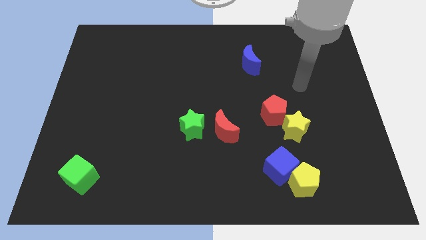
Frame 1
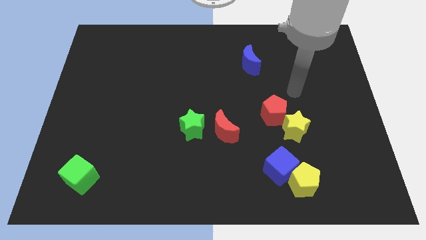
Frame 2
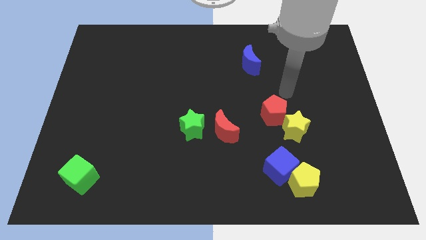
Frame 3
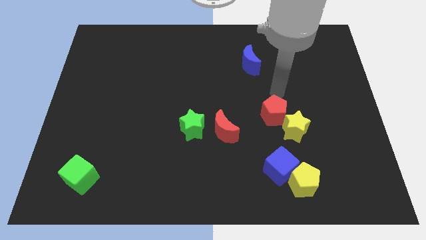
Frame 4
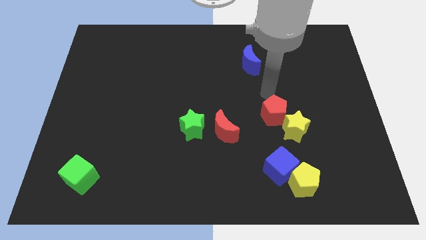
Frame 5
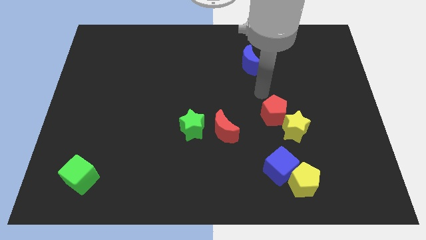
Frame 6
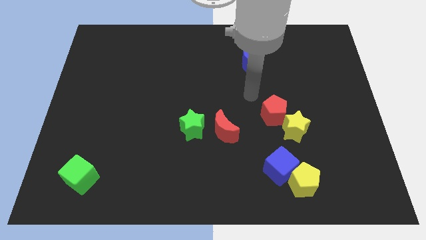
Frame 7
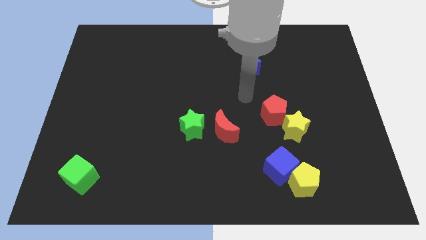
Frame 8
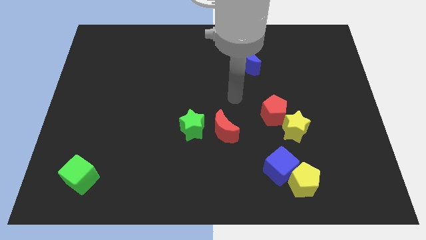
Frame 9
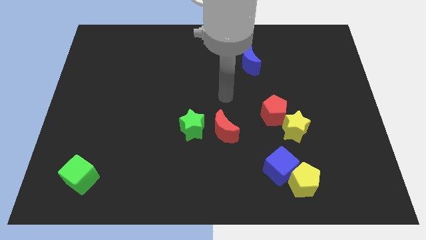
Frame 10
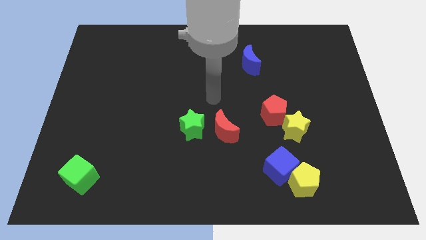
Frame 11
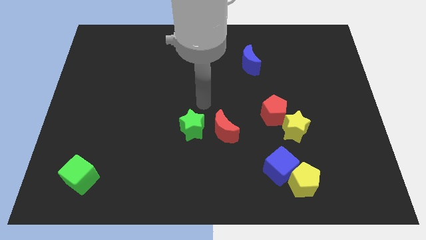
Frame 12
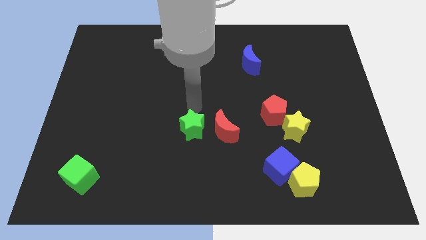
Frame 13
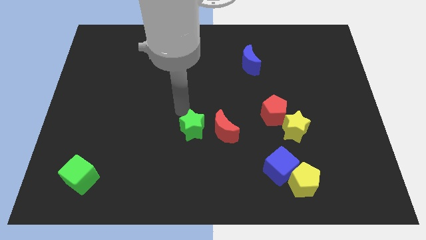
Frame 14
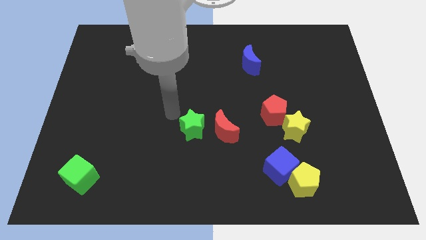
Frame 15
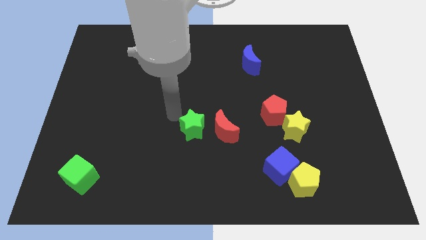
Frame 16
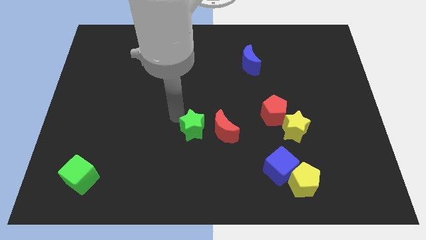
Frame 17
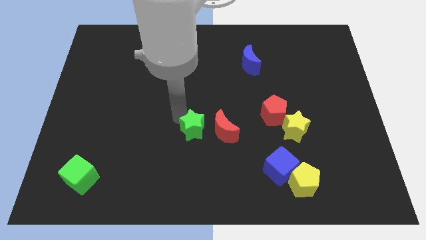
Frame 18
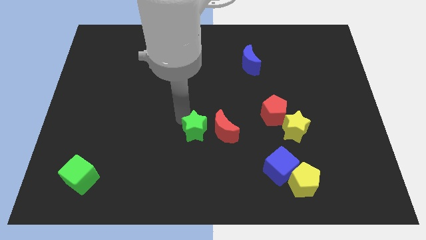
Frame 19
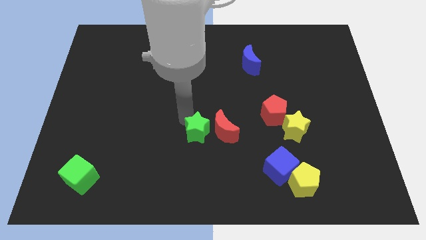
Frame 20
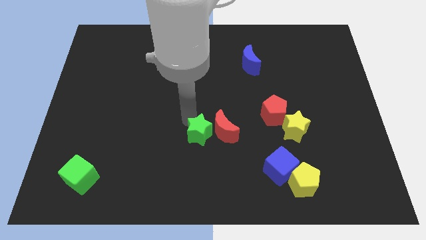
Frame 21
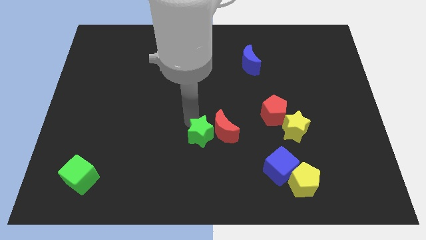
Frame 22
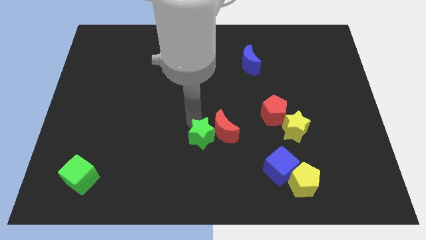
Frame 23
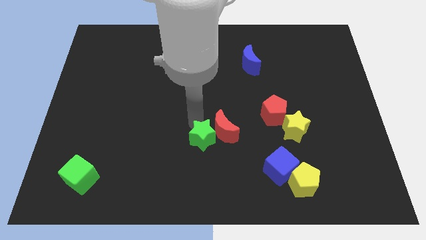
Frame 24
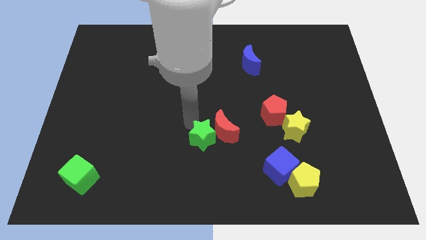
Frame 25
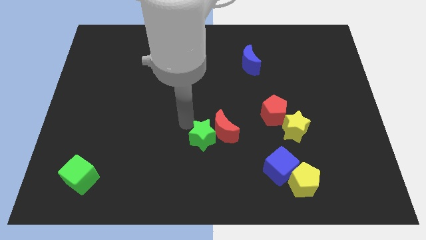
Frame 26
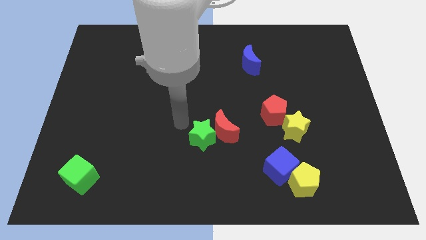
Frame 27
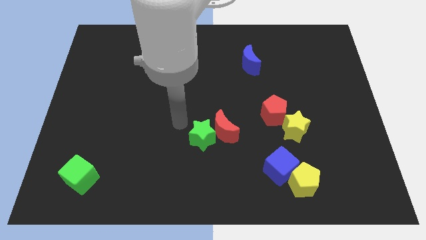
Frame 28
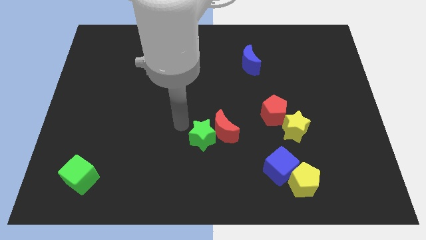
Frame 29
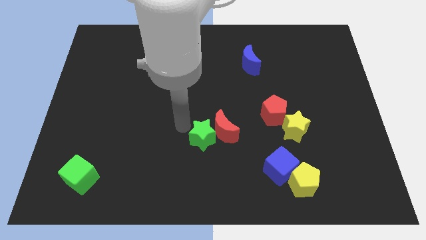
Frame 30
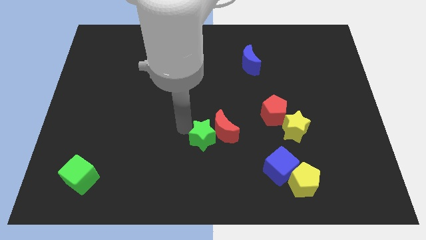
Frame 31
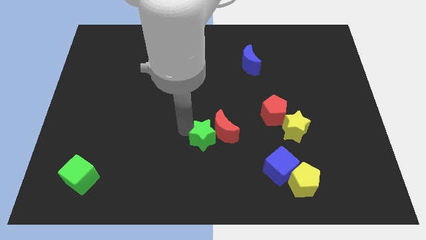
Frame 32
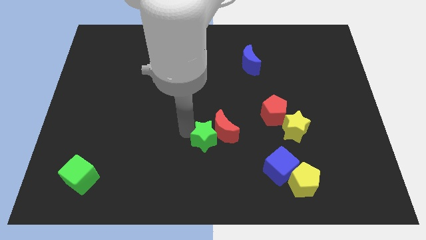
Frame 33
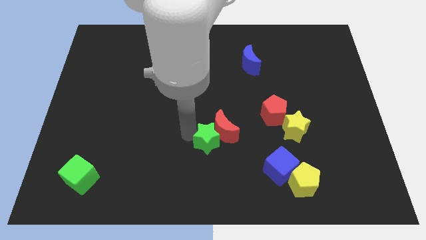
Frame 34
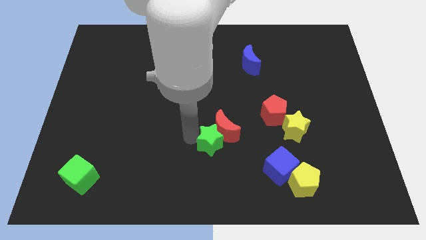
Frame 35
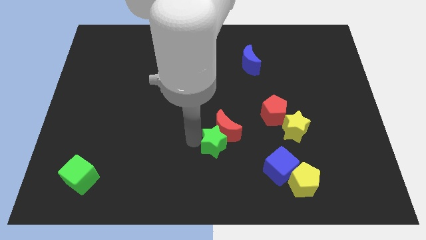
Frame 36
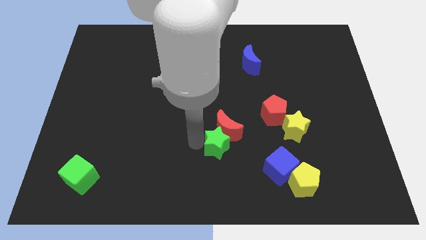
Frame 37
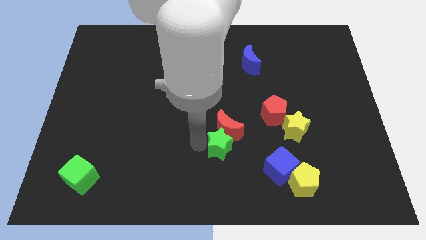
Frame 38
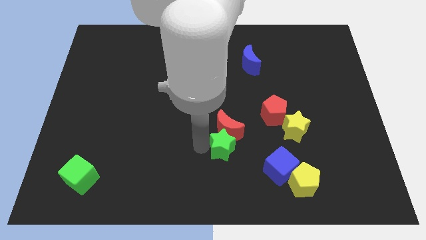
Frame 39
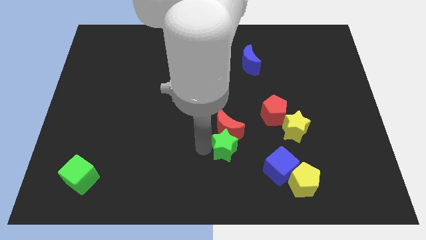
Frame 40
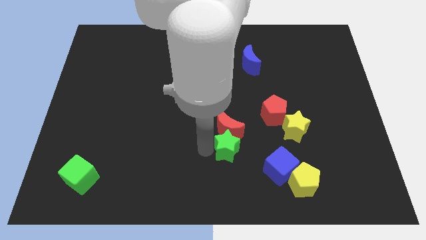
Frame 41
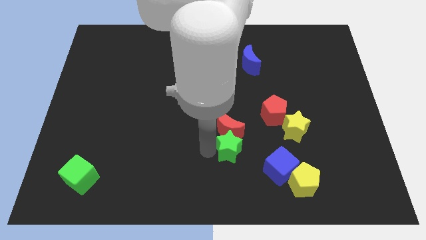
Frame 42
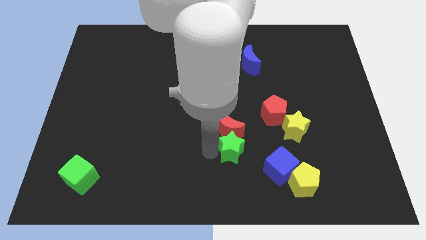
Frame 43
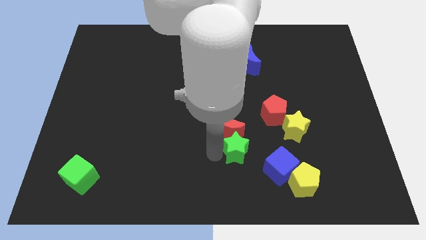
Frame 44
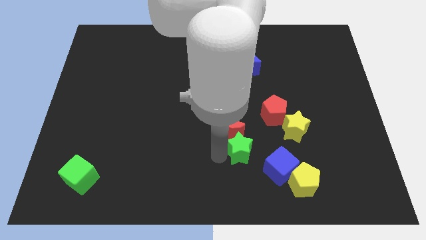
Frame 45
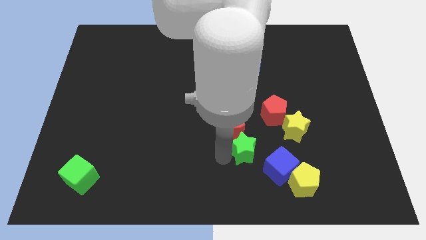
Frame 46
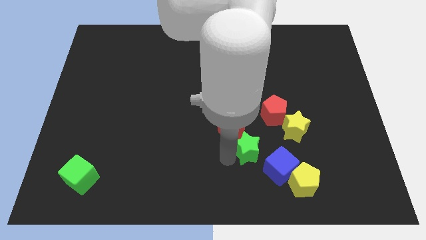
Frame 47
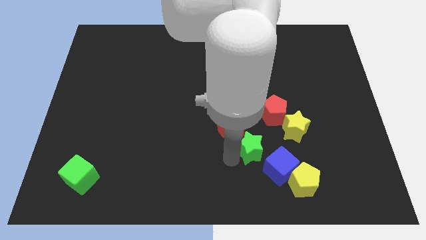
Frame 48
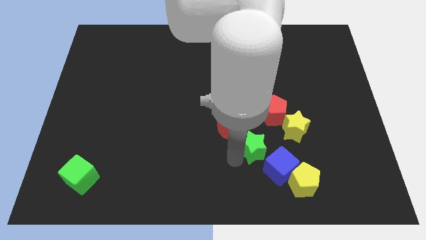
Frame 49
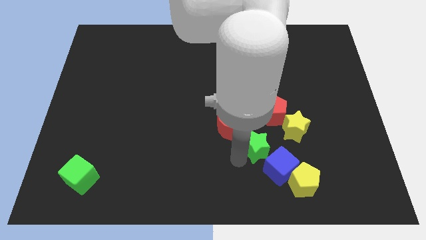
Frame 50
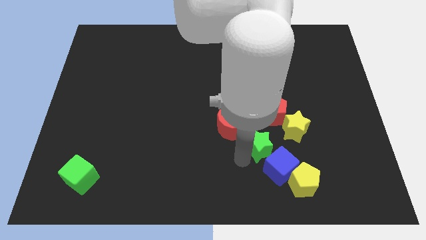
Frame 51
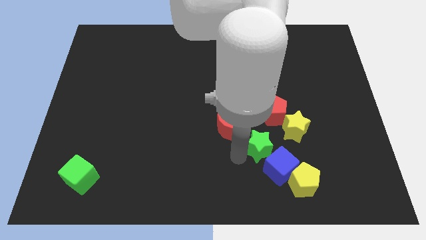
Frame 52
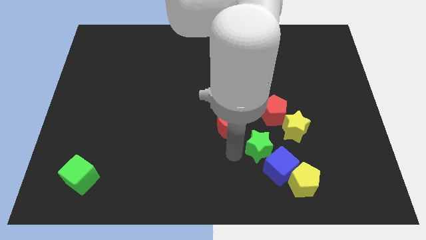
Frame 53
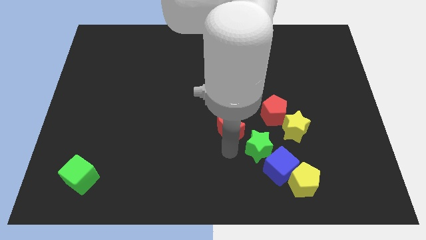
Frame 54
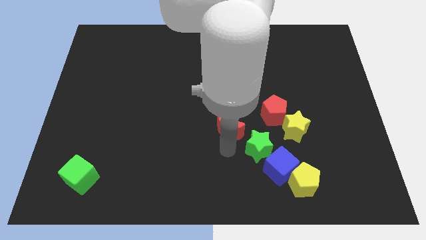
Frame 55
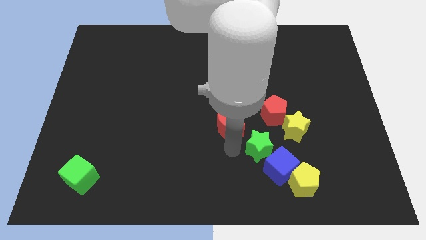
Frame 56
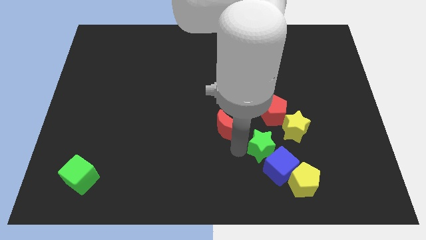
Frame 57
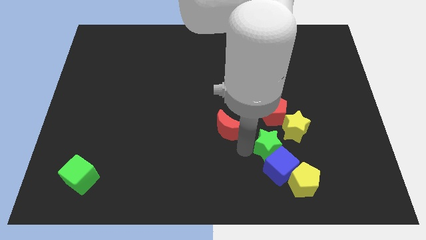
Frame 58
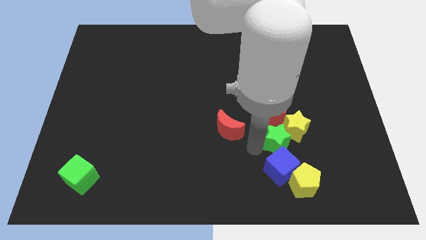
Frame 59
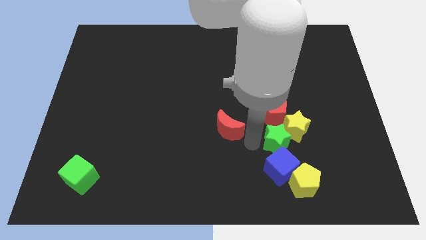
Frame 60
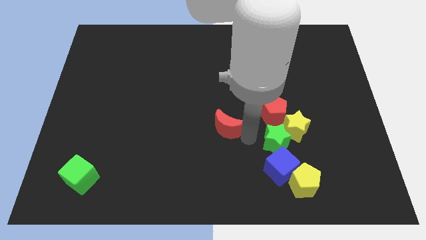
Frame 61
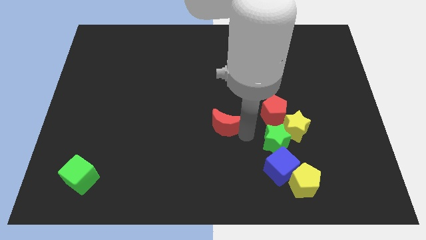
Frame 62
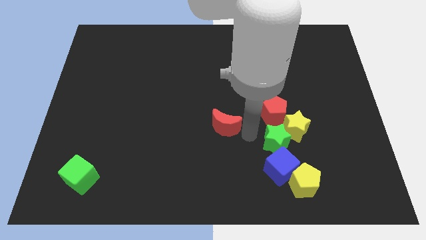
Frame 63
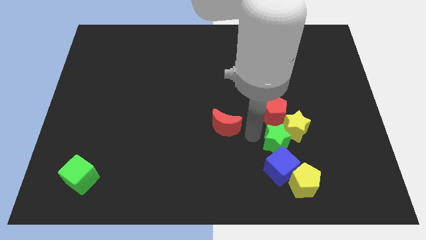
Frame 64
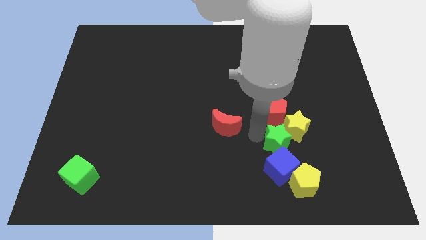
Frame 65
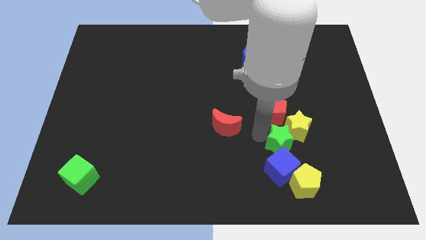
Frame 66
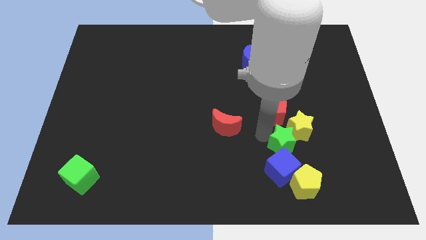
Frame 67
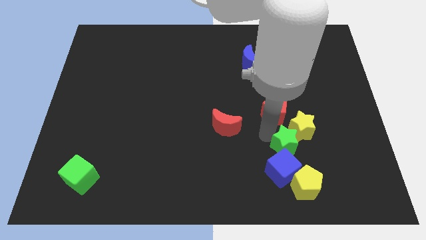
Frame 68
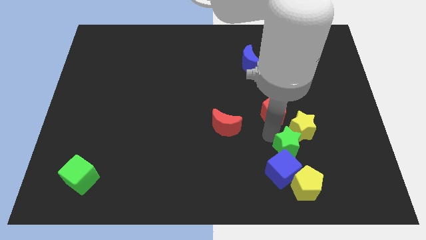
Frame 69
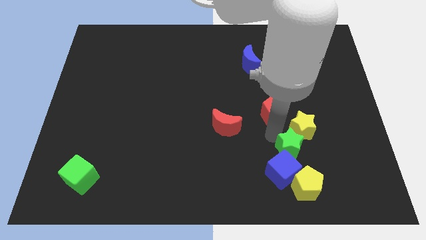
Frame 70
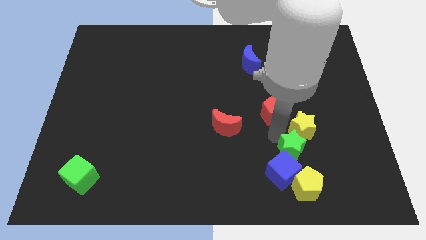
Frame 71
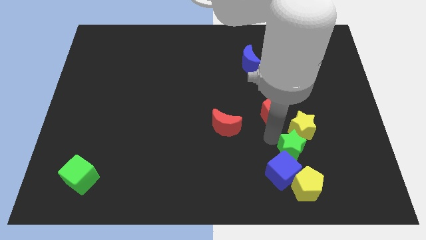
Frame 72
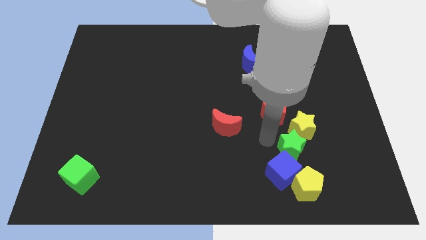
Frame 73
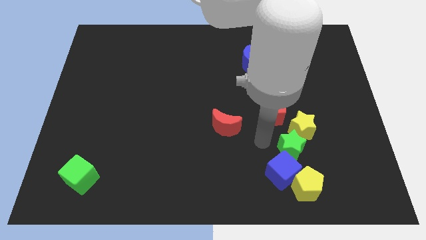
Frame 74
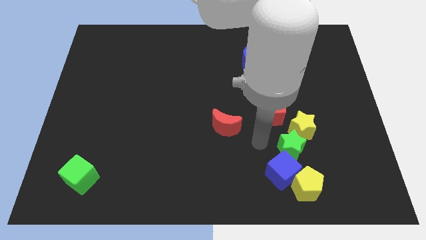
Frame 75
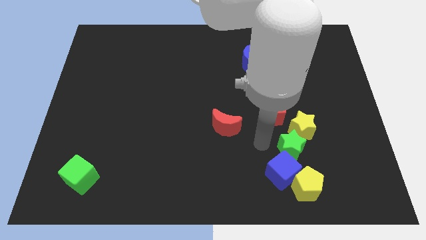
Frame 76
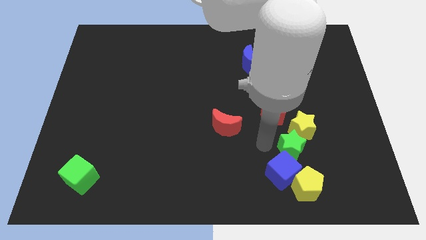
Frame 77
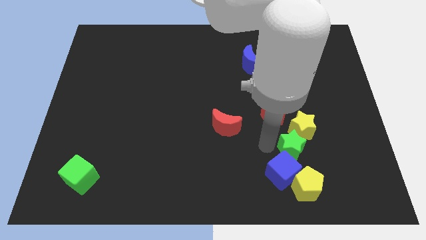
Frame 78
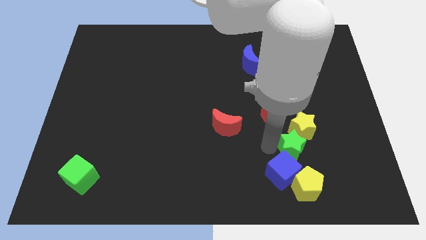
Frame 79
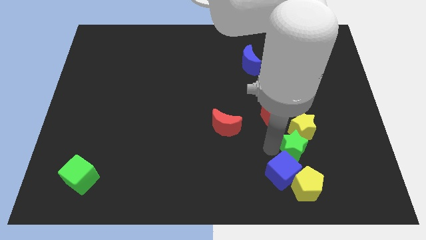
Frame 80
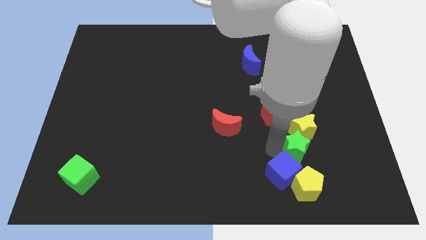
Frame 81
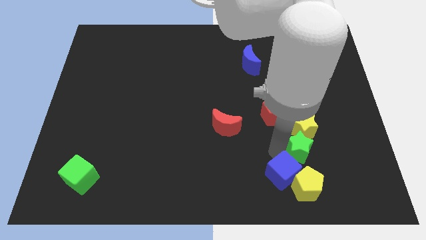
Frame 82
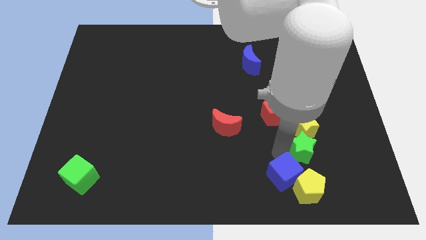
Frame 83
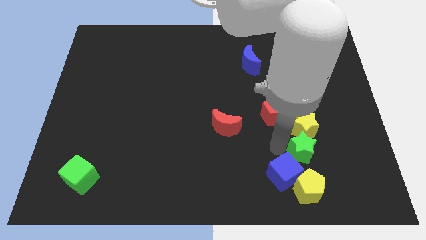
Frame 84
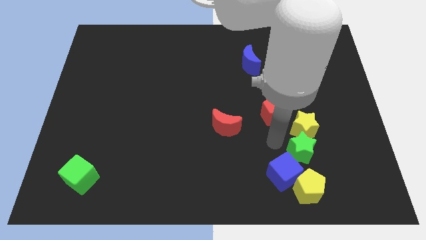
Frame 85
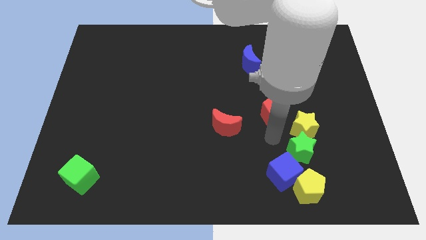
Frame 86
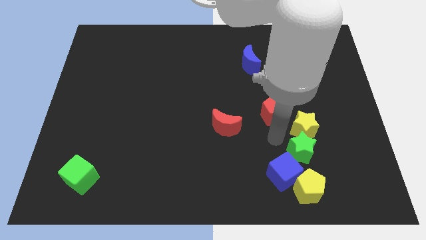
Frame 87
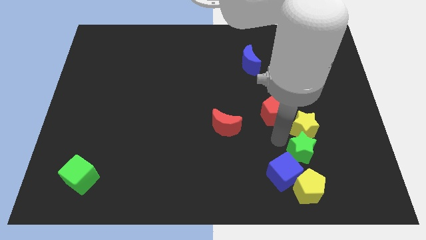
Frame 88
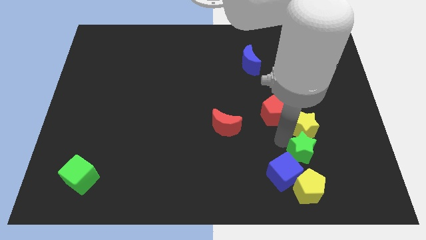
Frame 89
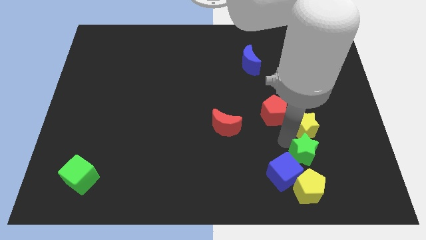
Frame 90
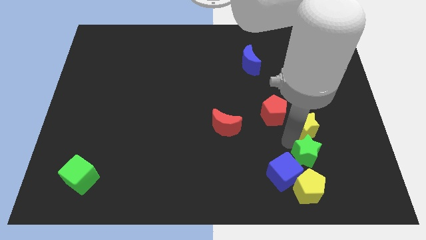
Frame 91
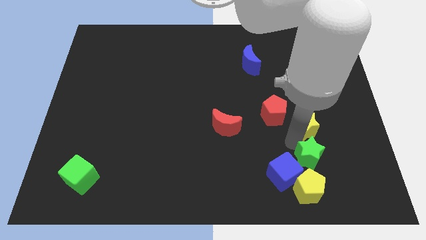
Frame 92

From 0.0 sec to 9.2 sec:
move the green star diagonally up and to the right of the yellow pentagon
